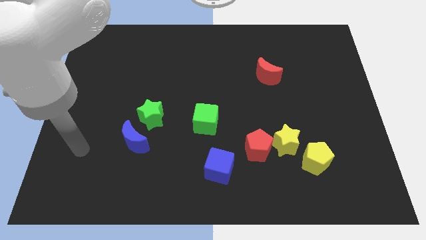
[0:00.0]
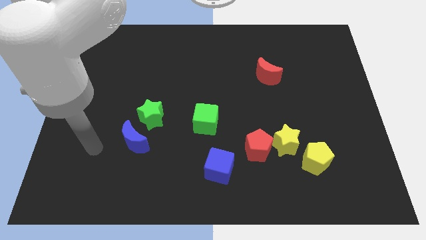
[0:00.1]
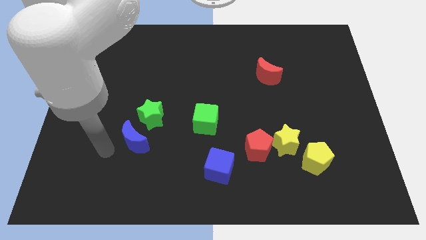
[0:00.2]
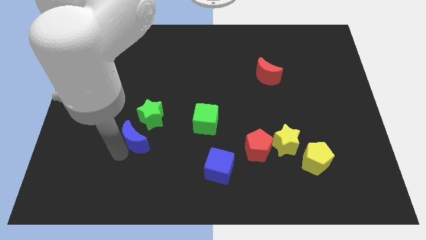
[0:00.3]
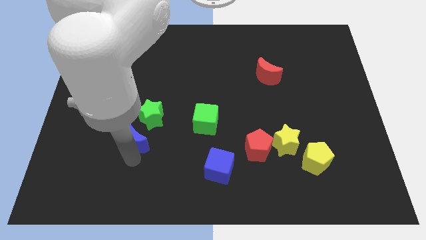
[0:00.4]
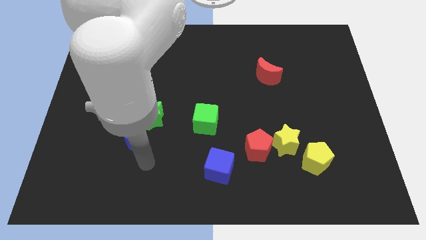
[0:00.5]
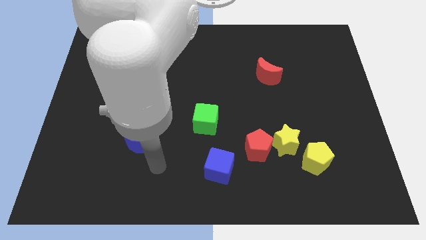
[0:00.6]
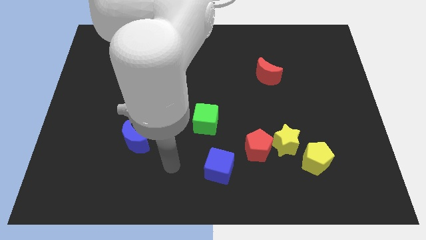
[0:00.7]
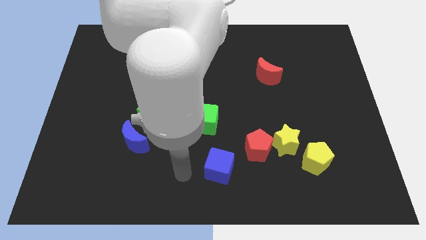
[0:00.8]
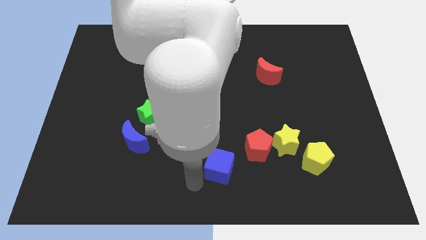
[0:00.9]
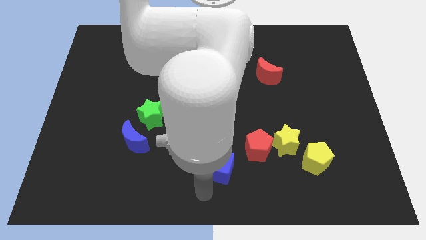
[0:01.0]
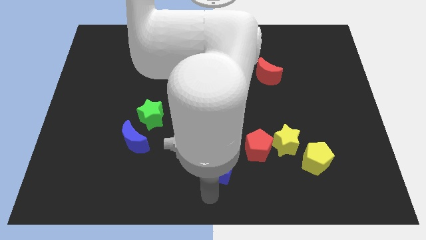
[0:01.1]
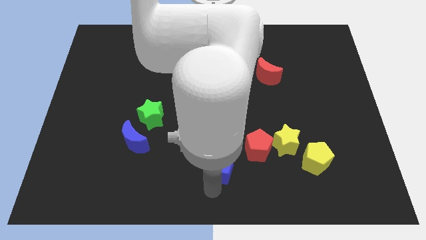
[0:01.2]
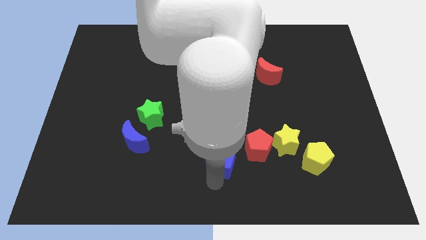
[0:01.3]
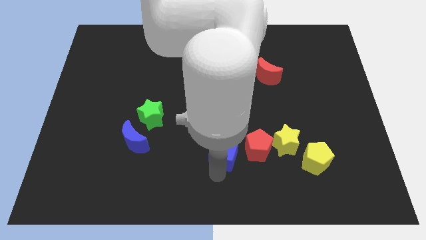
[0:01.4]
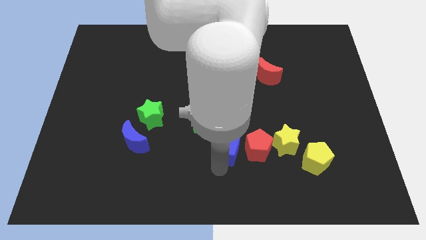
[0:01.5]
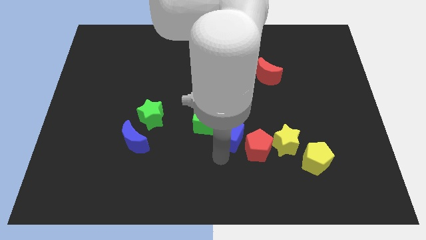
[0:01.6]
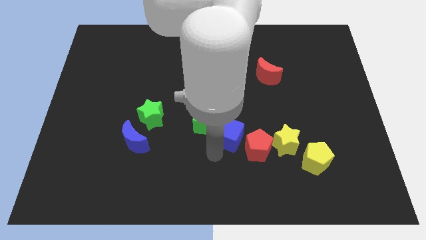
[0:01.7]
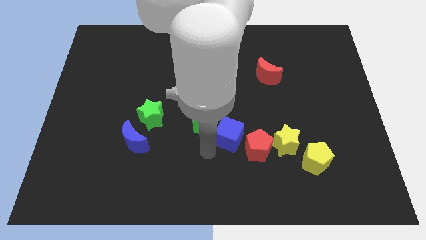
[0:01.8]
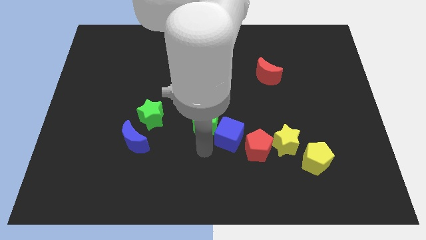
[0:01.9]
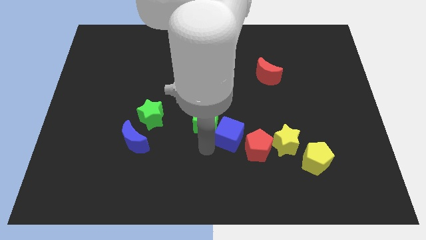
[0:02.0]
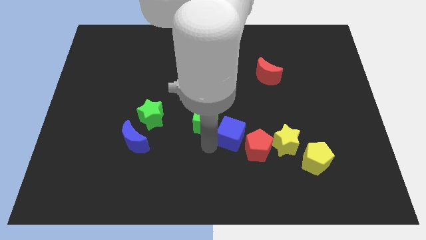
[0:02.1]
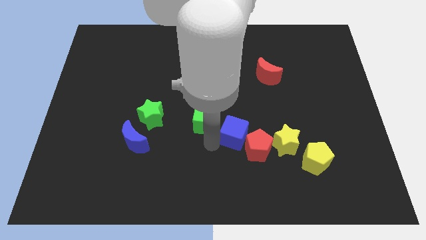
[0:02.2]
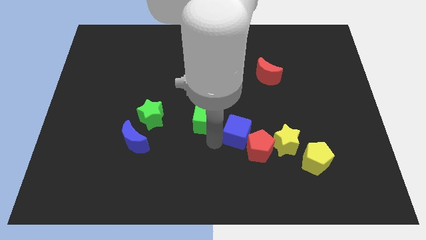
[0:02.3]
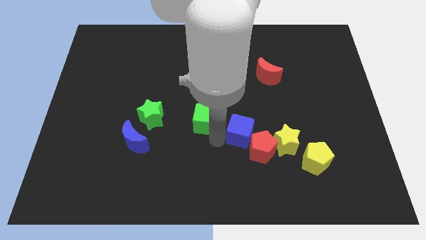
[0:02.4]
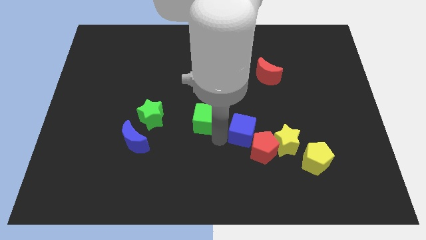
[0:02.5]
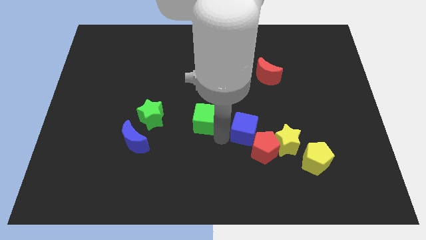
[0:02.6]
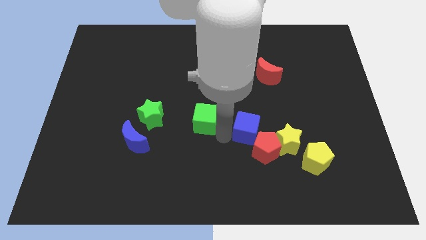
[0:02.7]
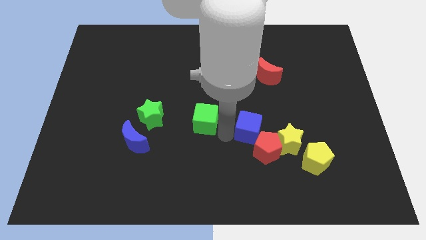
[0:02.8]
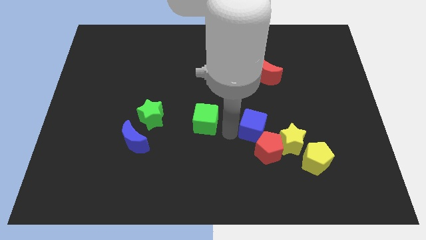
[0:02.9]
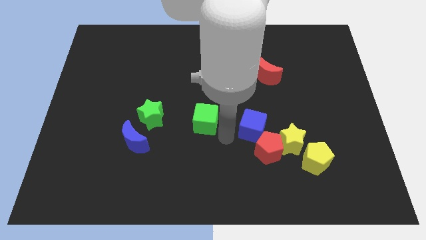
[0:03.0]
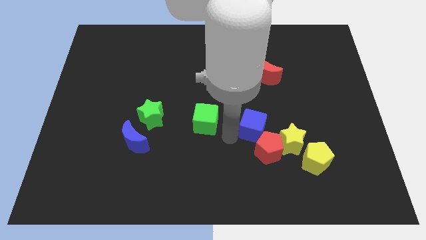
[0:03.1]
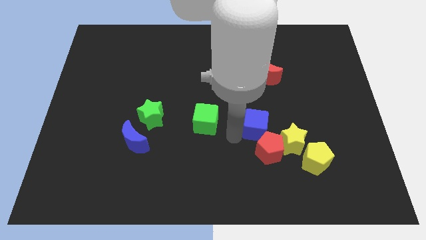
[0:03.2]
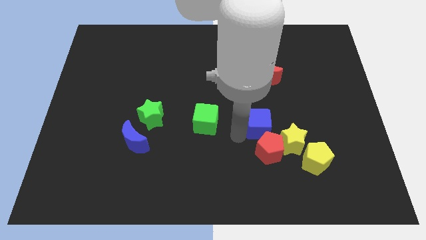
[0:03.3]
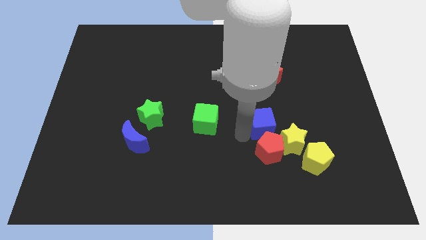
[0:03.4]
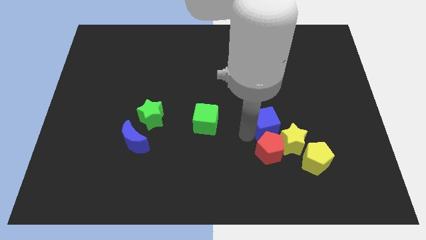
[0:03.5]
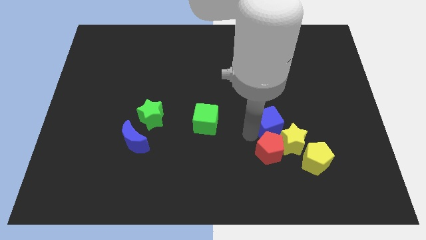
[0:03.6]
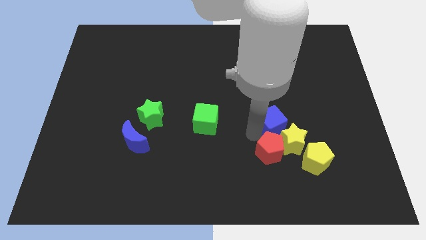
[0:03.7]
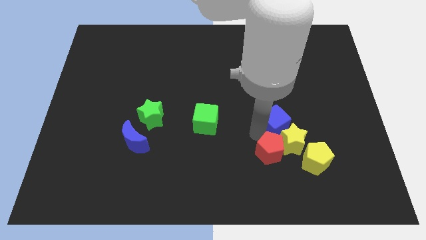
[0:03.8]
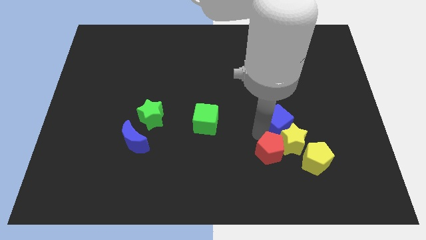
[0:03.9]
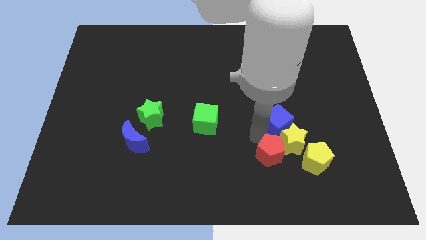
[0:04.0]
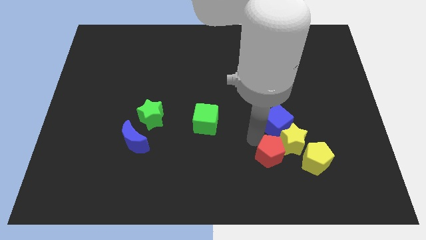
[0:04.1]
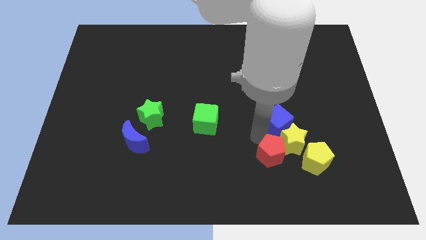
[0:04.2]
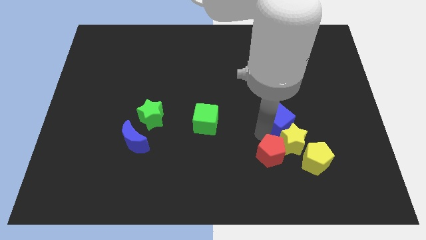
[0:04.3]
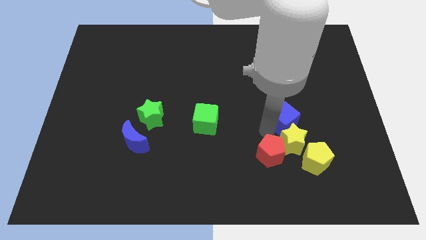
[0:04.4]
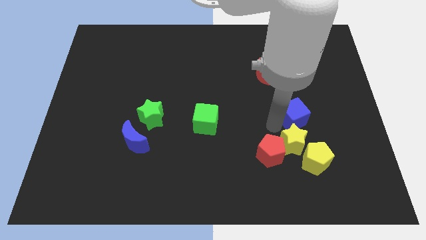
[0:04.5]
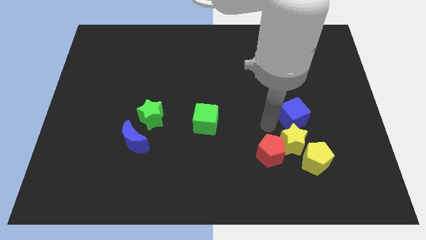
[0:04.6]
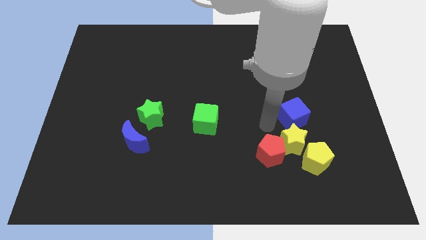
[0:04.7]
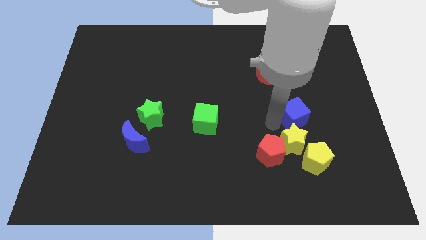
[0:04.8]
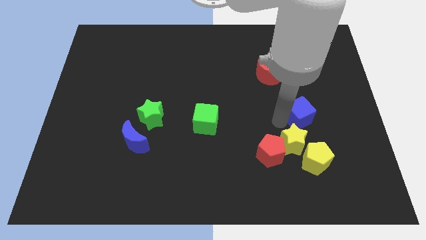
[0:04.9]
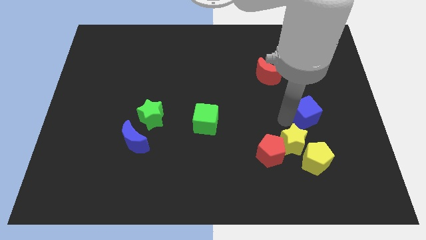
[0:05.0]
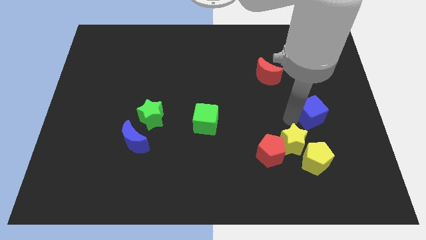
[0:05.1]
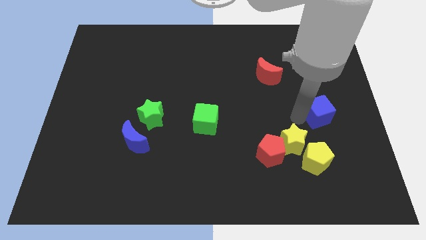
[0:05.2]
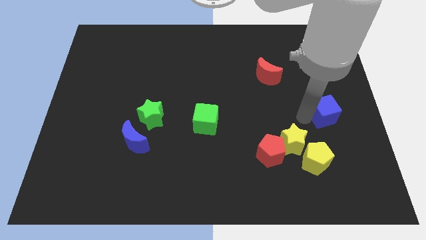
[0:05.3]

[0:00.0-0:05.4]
slide the blue cube to the center right
